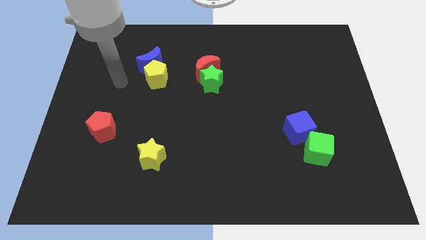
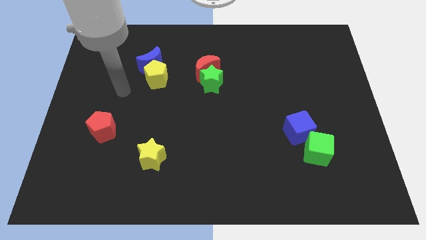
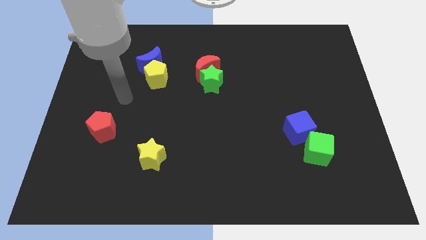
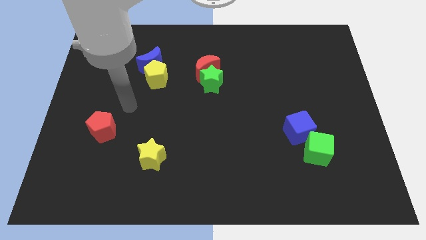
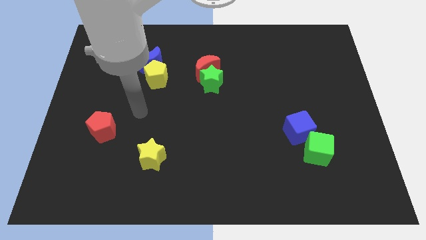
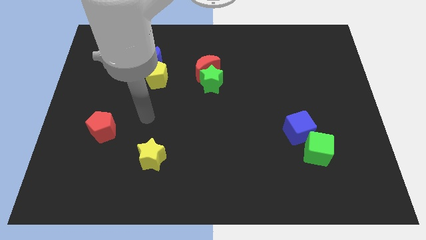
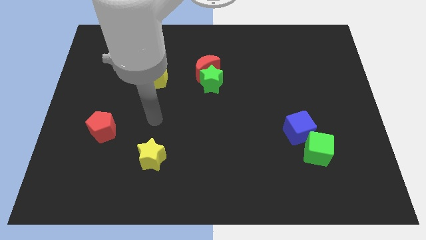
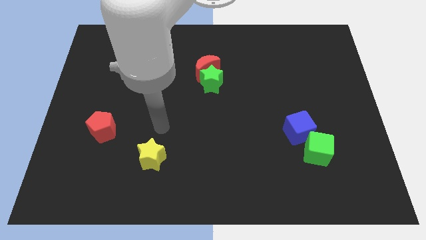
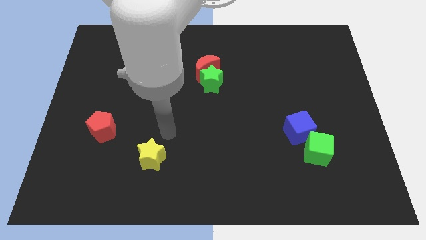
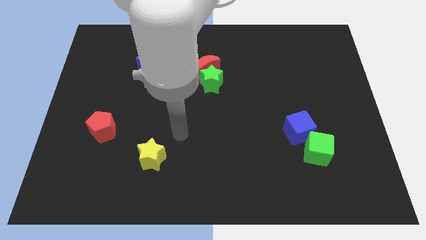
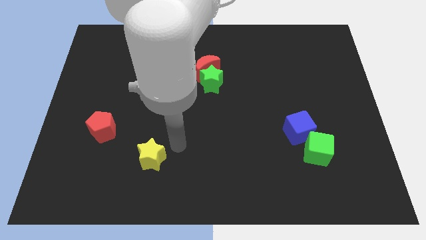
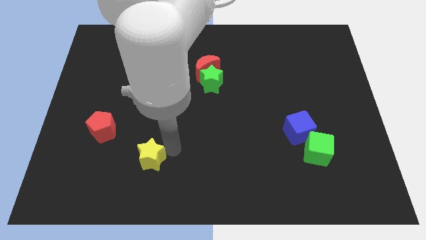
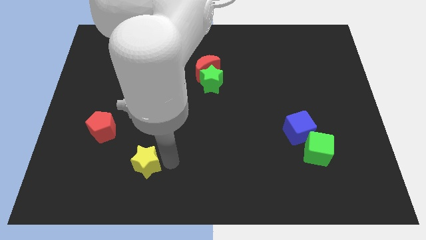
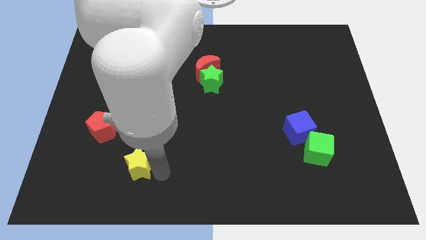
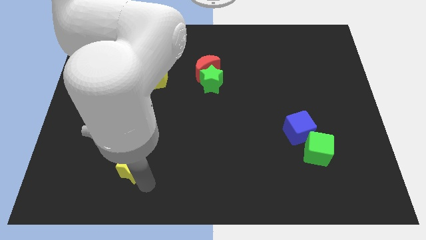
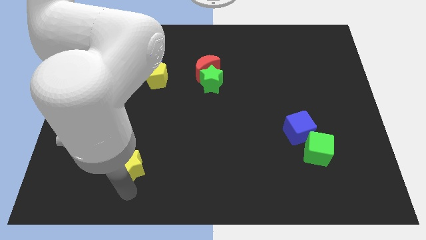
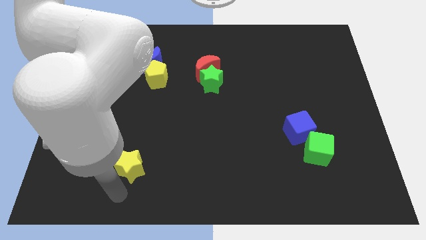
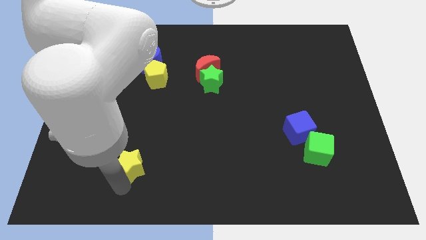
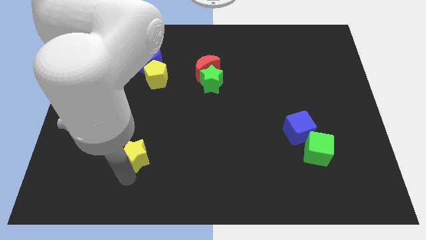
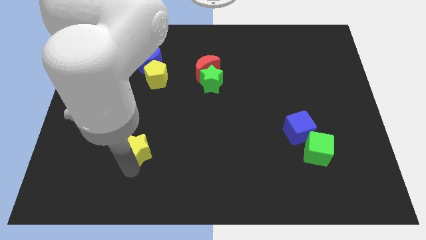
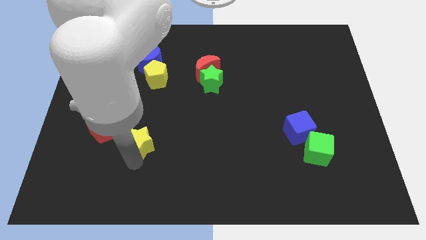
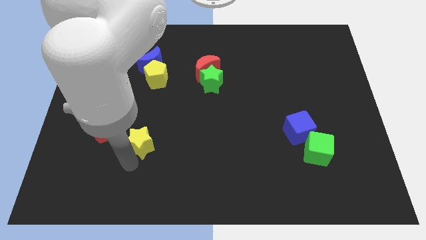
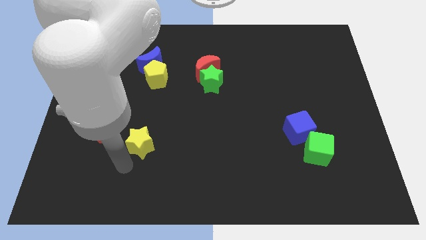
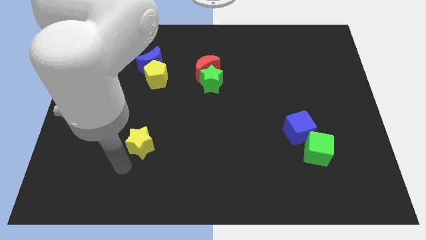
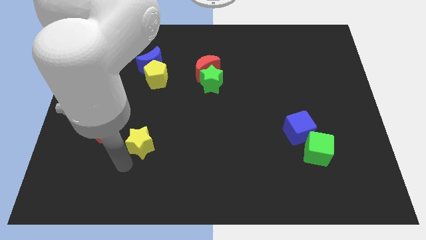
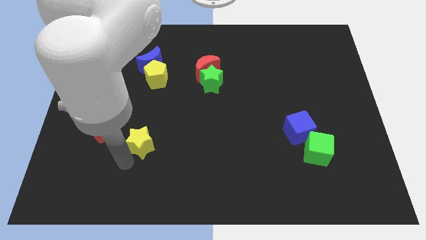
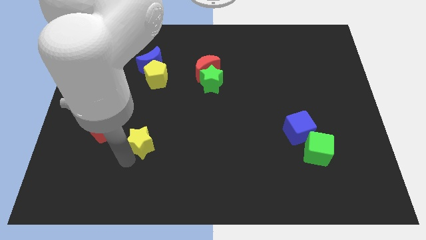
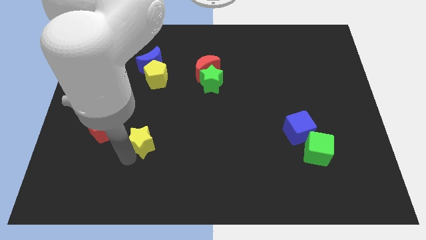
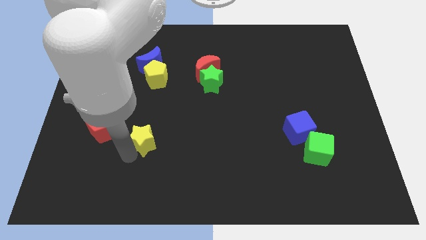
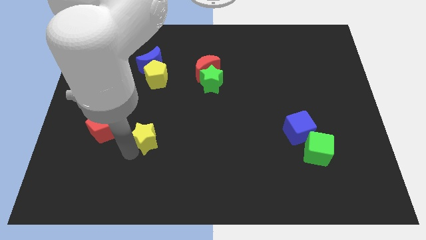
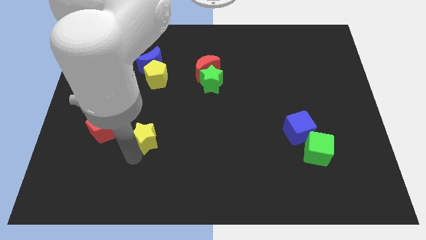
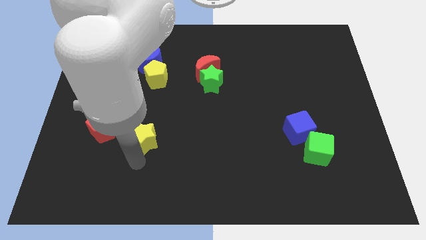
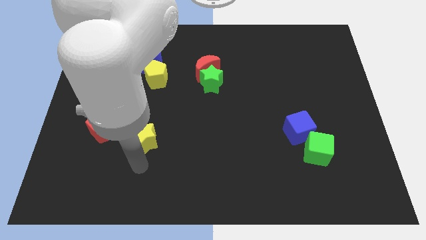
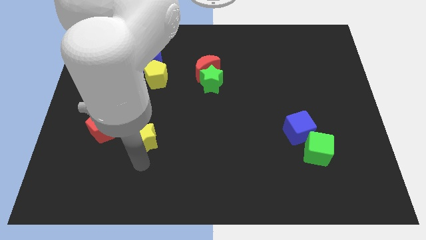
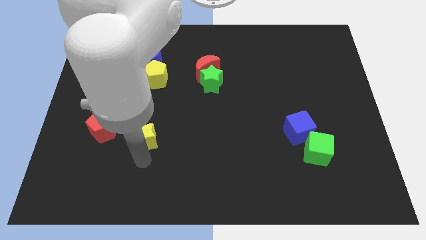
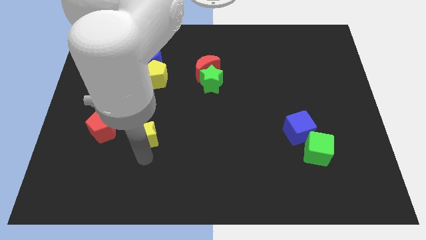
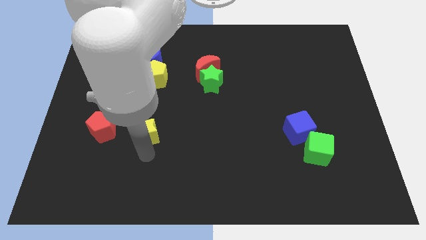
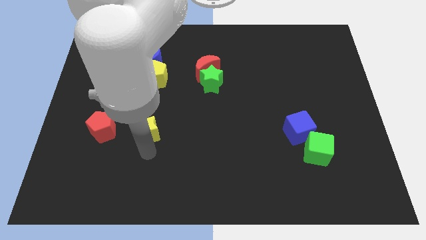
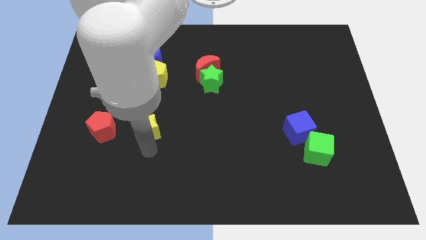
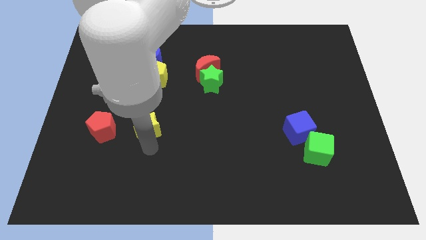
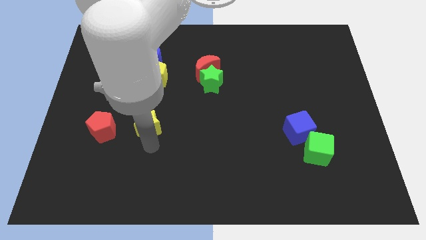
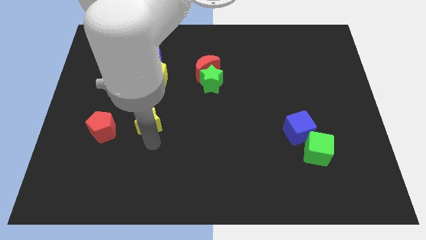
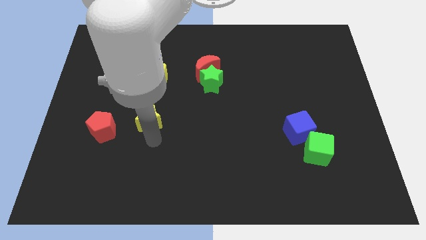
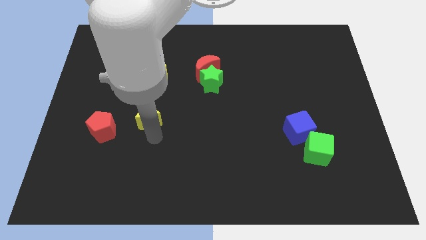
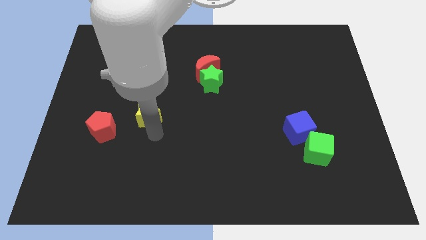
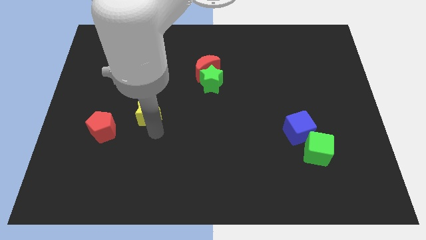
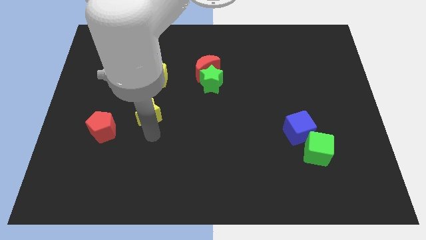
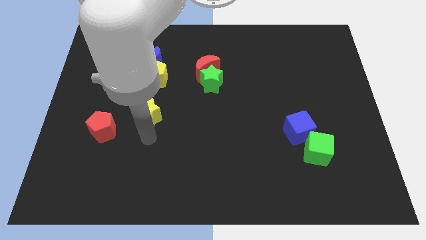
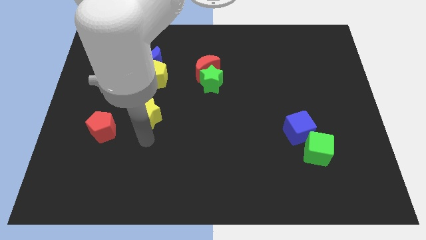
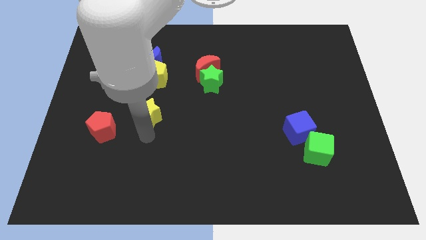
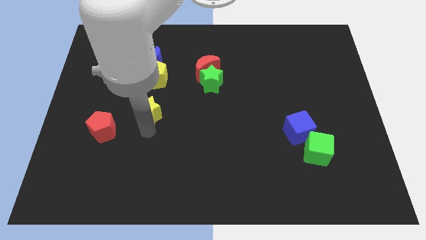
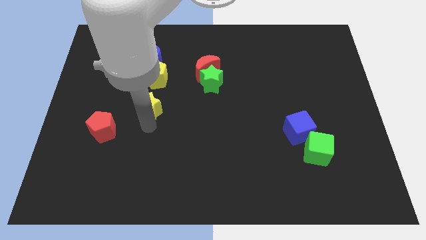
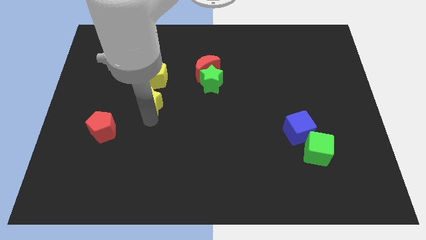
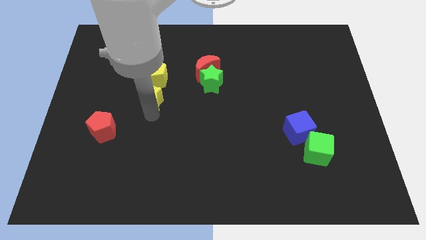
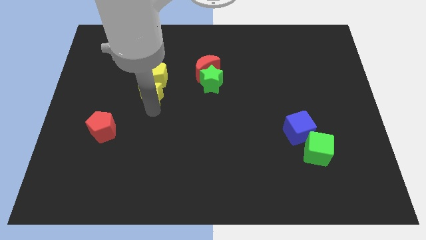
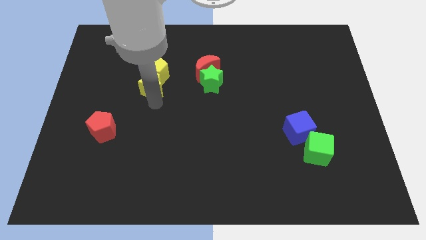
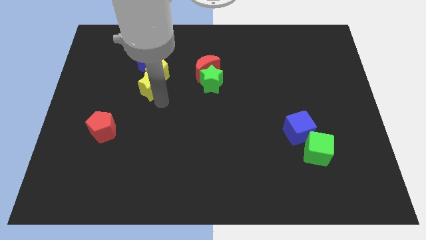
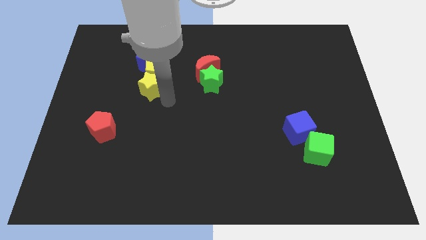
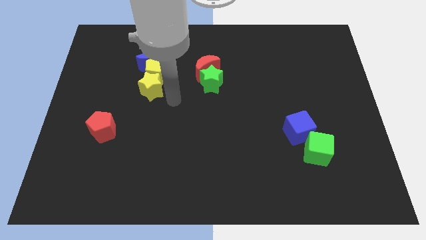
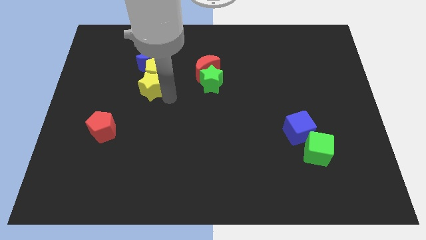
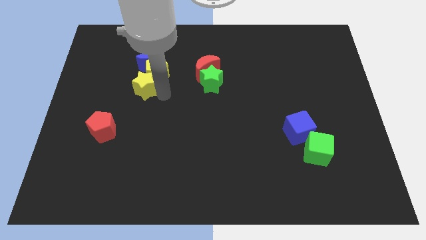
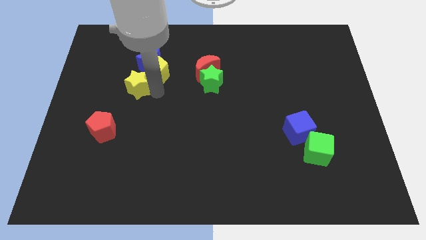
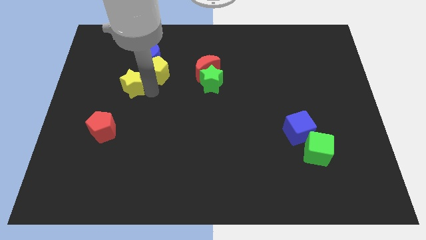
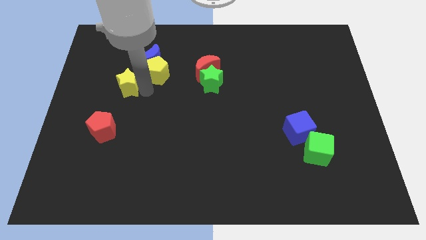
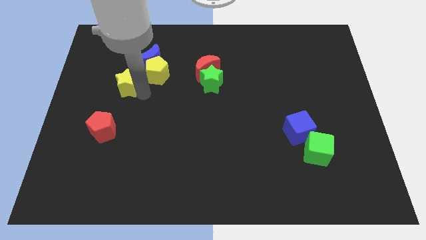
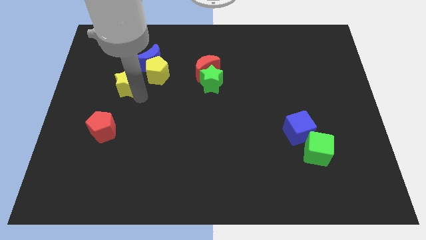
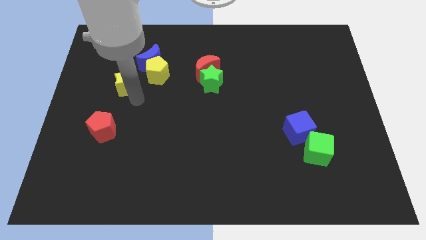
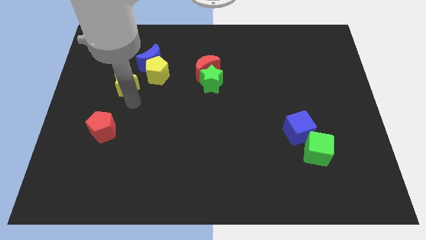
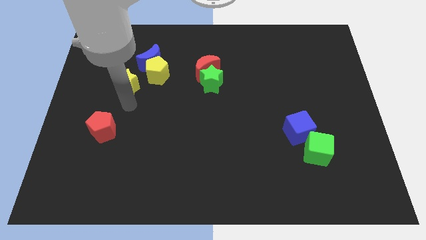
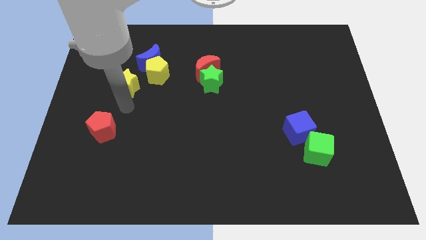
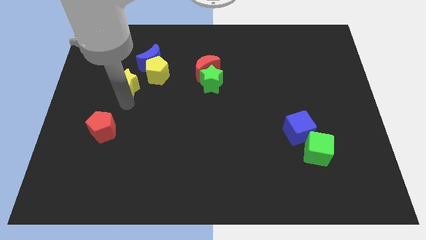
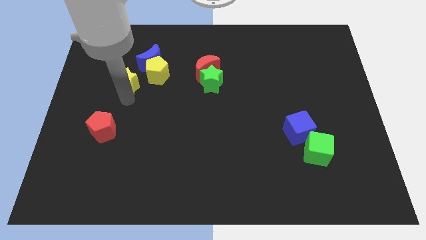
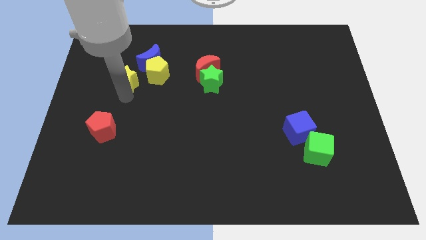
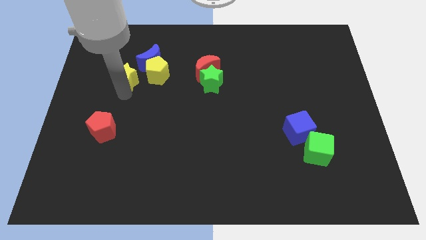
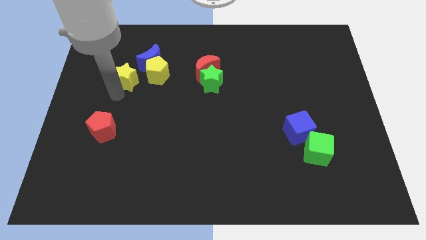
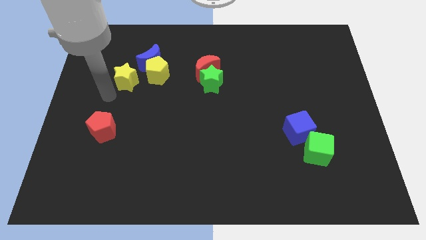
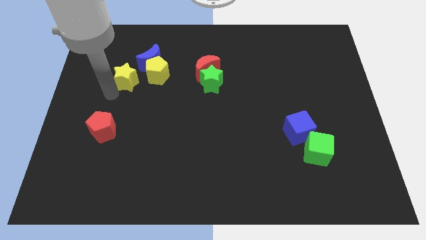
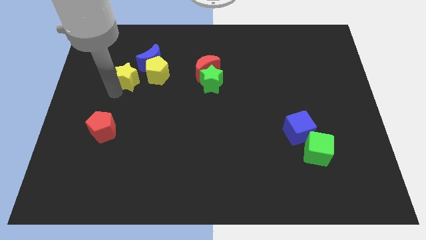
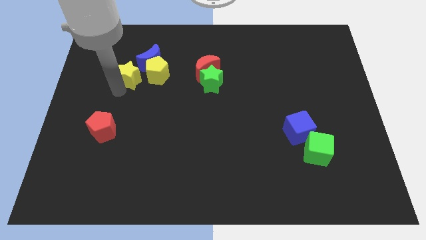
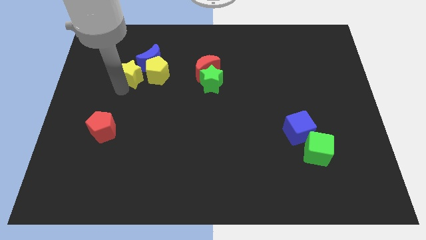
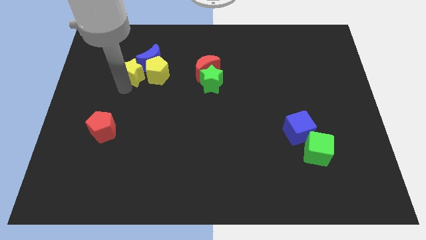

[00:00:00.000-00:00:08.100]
move the yellow star towards the blue moon
